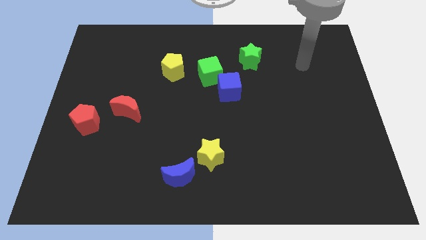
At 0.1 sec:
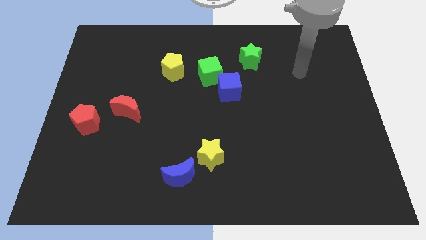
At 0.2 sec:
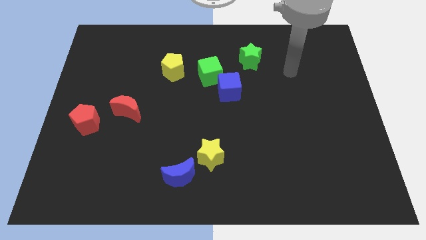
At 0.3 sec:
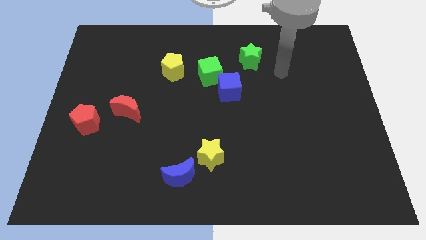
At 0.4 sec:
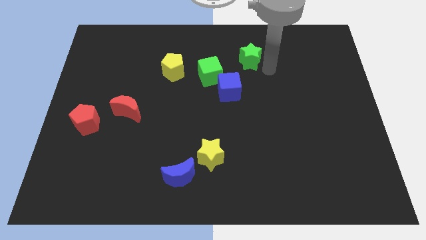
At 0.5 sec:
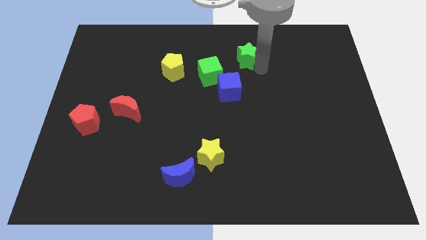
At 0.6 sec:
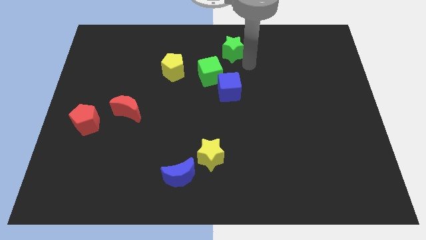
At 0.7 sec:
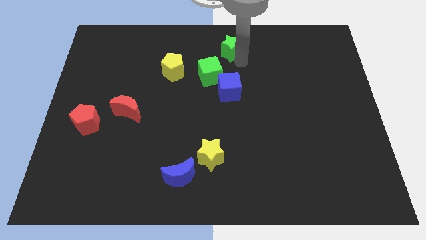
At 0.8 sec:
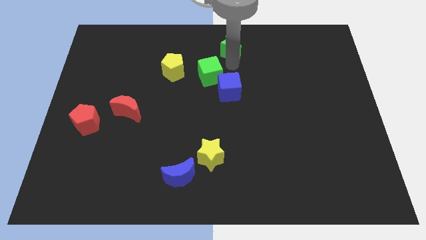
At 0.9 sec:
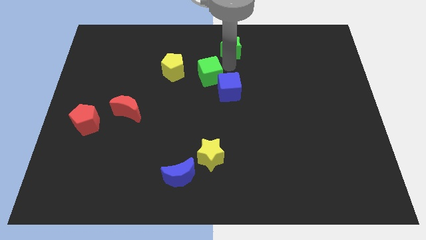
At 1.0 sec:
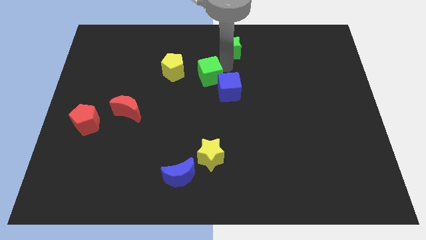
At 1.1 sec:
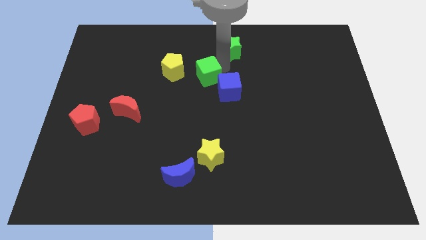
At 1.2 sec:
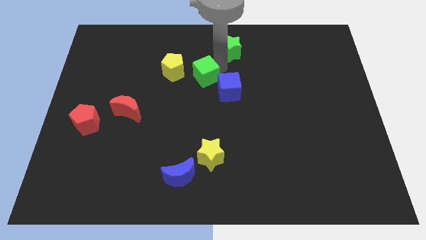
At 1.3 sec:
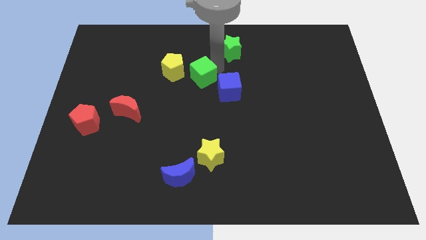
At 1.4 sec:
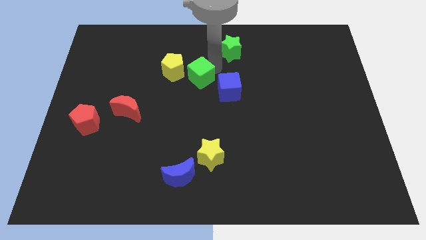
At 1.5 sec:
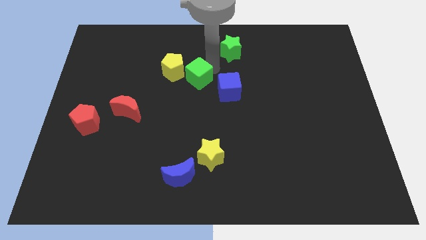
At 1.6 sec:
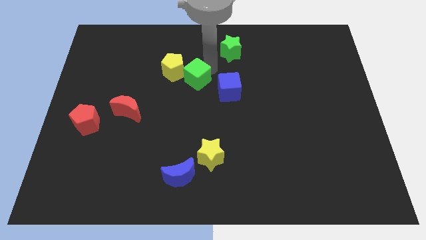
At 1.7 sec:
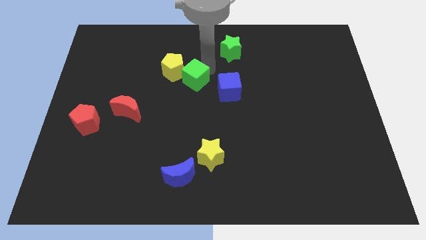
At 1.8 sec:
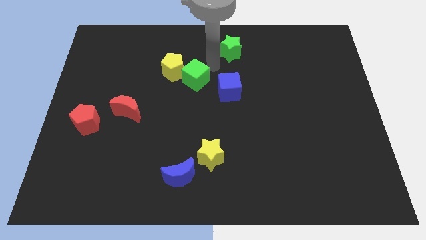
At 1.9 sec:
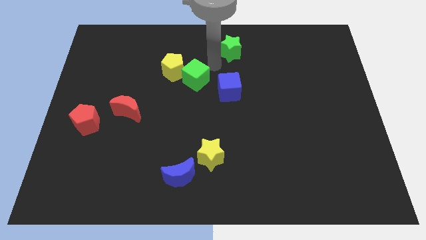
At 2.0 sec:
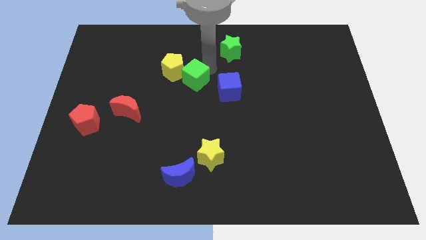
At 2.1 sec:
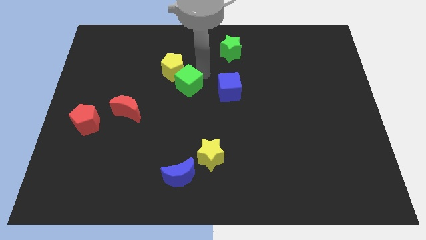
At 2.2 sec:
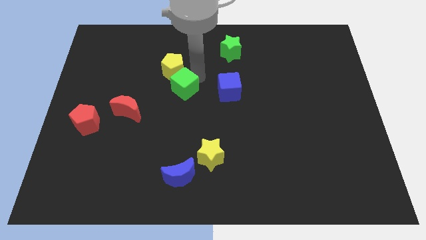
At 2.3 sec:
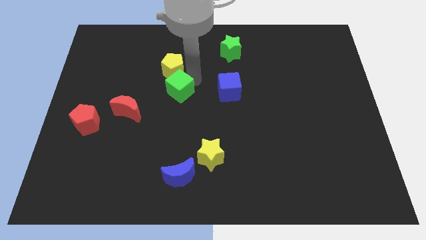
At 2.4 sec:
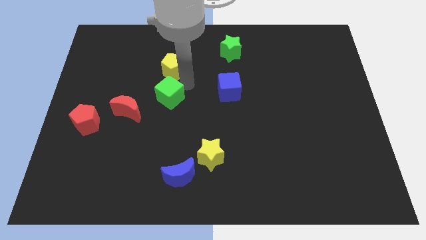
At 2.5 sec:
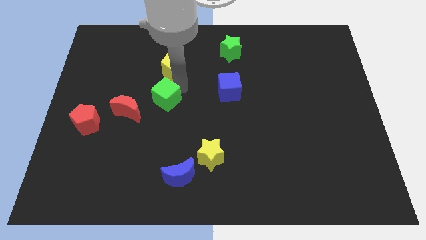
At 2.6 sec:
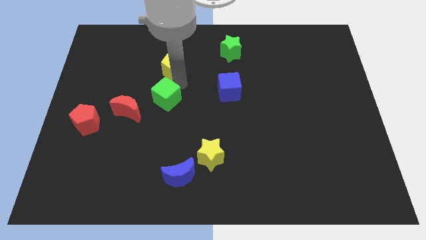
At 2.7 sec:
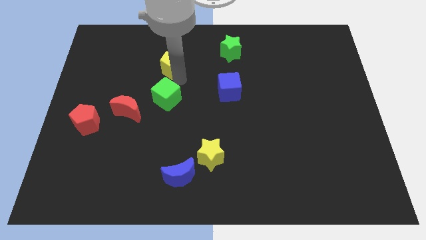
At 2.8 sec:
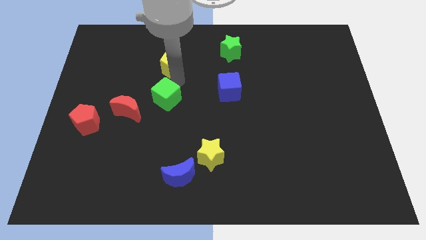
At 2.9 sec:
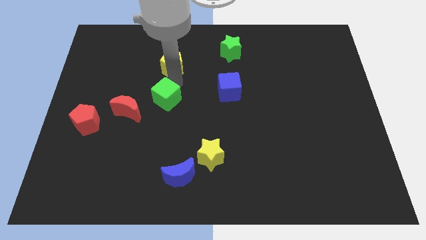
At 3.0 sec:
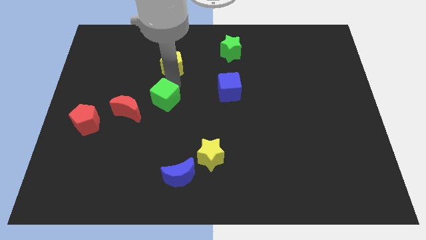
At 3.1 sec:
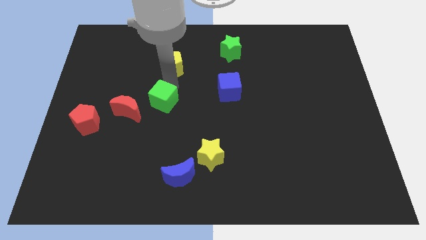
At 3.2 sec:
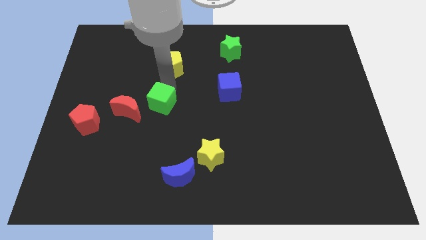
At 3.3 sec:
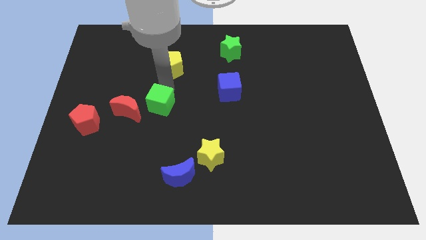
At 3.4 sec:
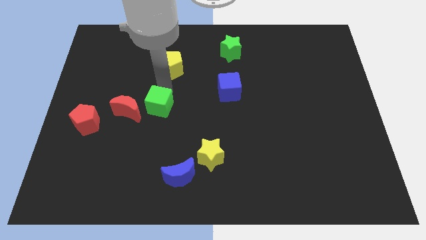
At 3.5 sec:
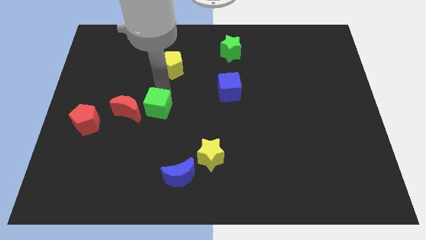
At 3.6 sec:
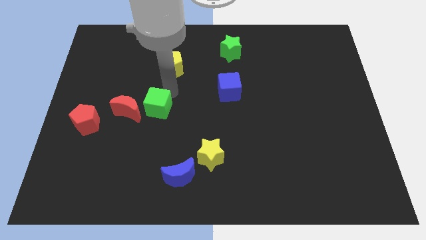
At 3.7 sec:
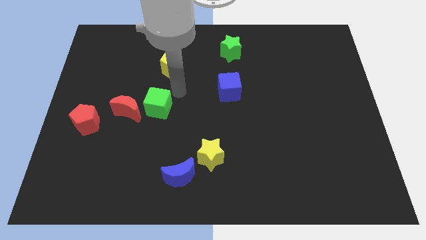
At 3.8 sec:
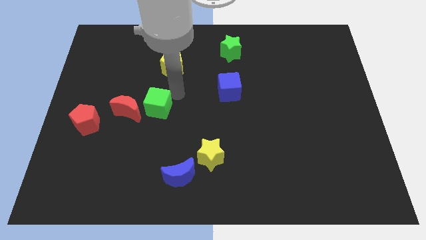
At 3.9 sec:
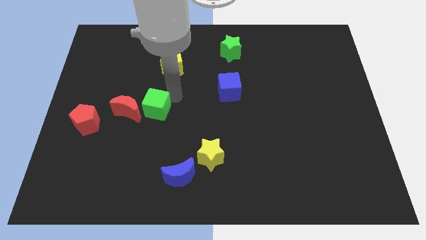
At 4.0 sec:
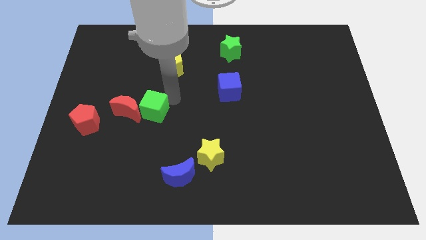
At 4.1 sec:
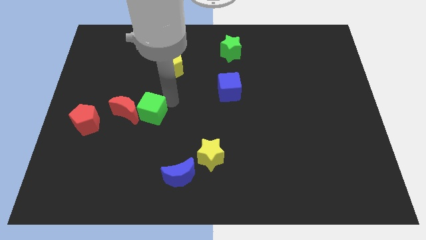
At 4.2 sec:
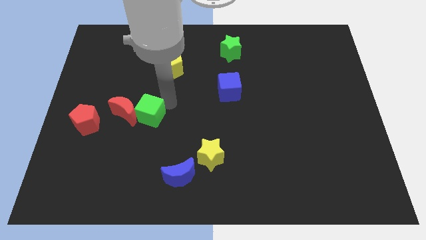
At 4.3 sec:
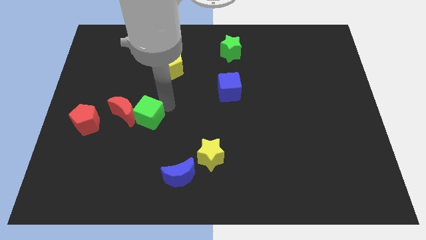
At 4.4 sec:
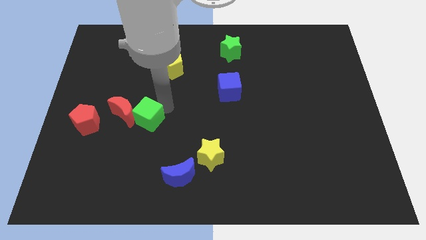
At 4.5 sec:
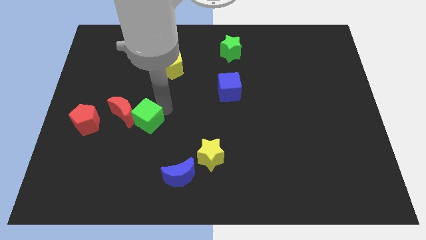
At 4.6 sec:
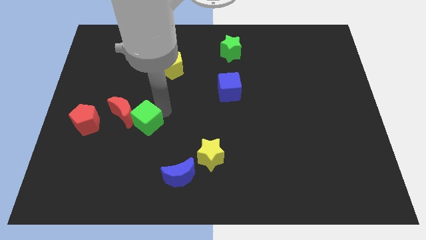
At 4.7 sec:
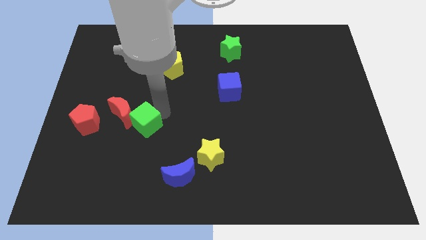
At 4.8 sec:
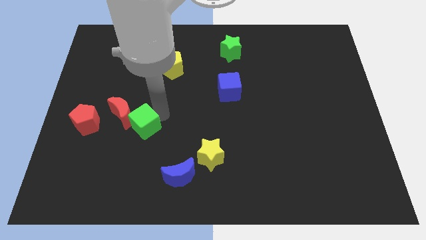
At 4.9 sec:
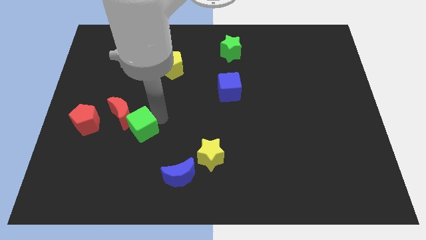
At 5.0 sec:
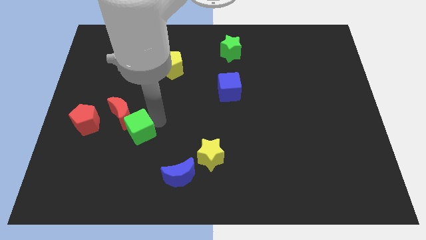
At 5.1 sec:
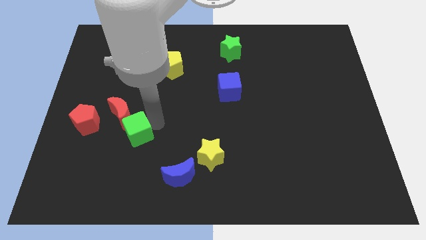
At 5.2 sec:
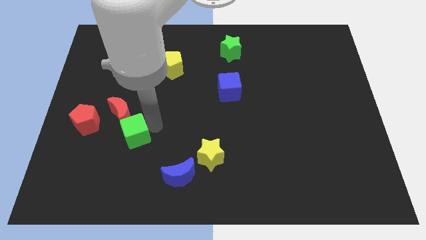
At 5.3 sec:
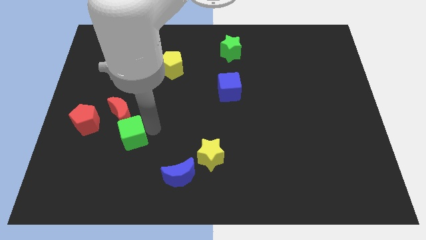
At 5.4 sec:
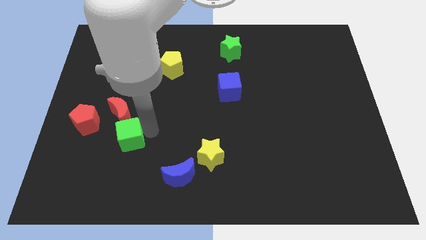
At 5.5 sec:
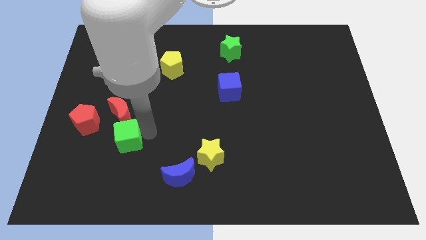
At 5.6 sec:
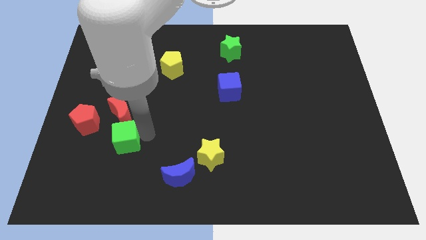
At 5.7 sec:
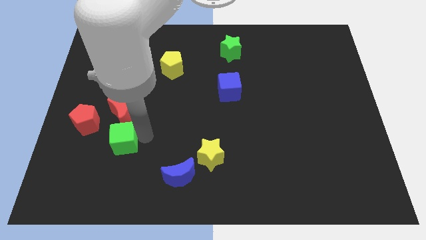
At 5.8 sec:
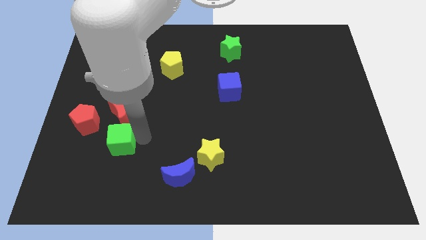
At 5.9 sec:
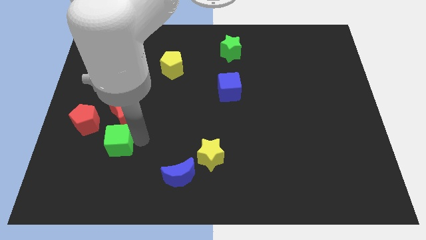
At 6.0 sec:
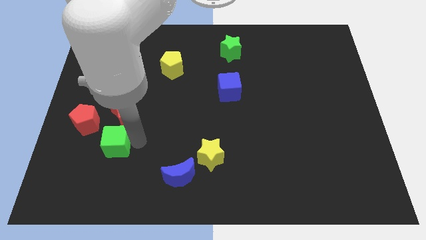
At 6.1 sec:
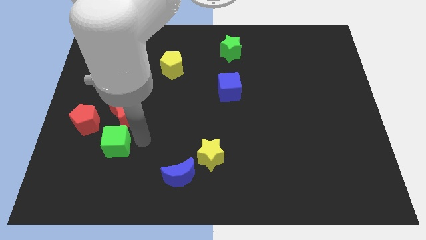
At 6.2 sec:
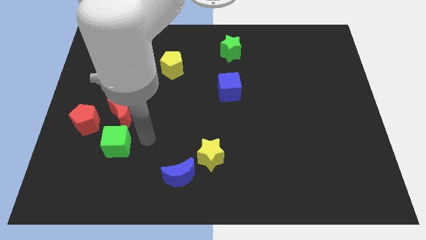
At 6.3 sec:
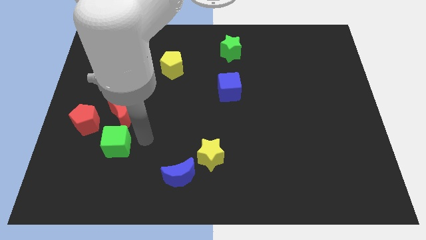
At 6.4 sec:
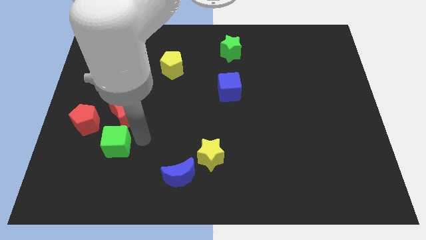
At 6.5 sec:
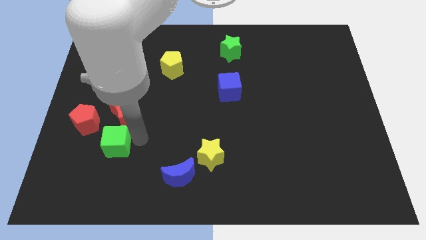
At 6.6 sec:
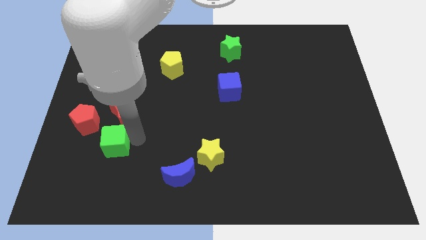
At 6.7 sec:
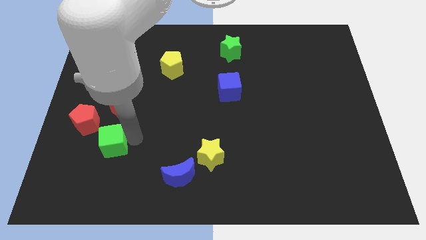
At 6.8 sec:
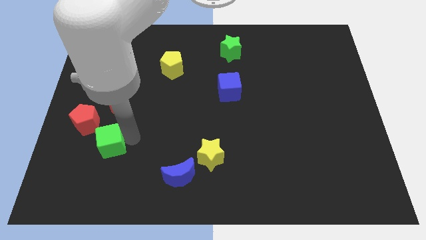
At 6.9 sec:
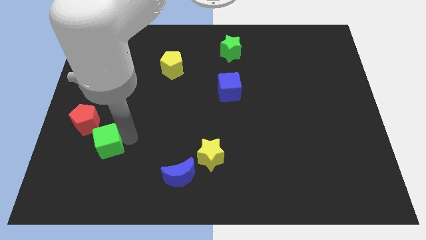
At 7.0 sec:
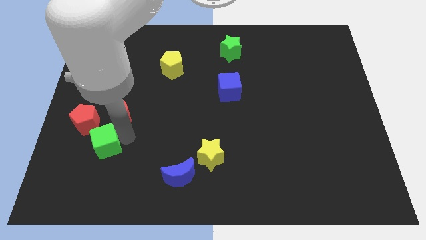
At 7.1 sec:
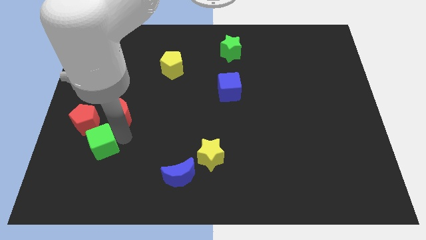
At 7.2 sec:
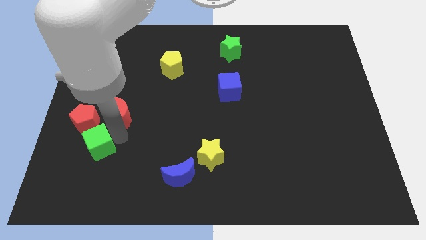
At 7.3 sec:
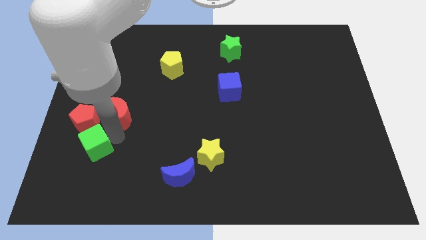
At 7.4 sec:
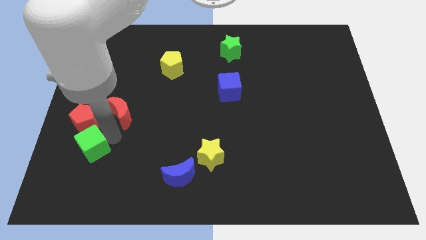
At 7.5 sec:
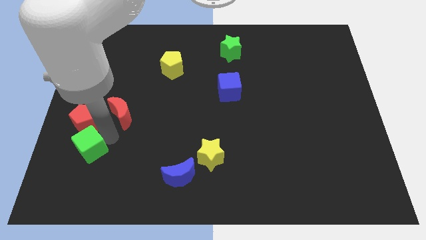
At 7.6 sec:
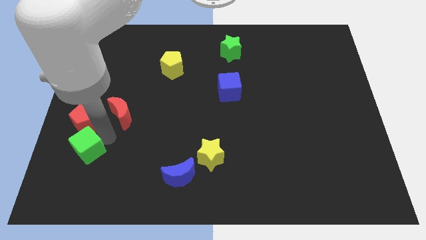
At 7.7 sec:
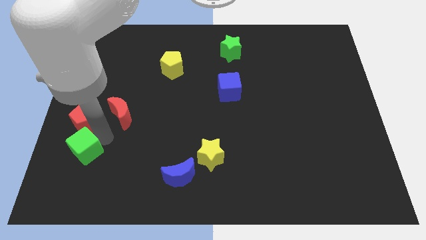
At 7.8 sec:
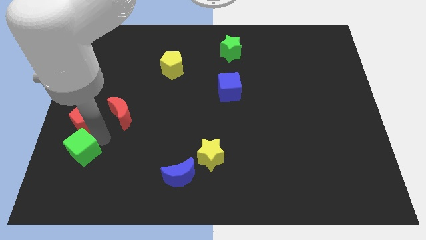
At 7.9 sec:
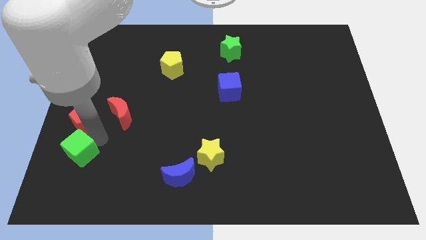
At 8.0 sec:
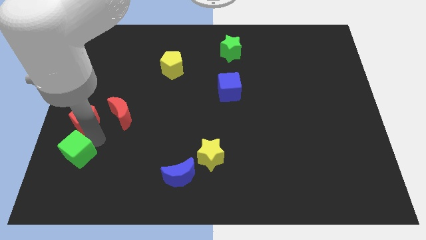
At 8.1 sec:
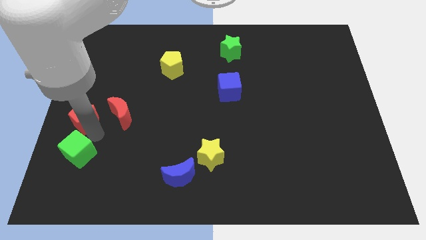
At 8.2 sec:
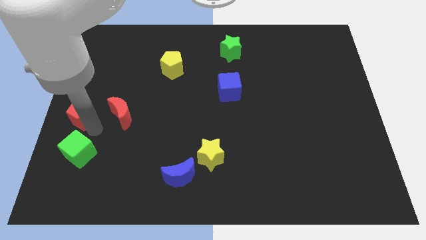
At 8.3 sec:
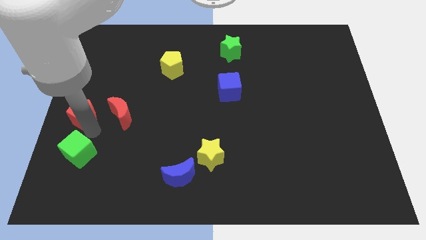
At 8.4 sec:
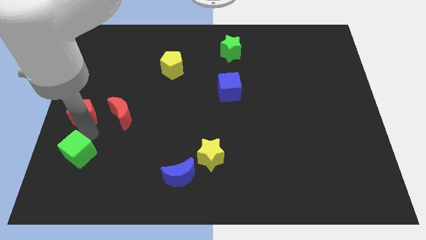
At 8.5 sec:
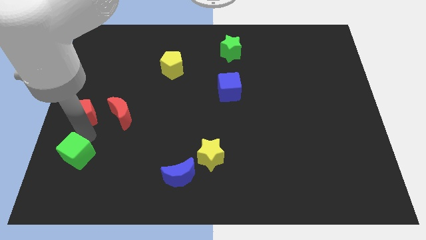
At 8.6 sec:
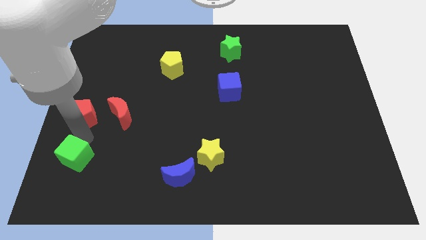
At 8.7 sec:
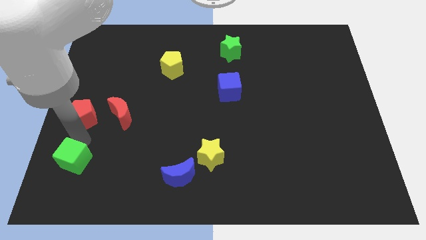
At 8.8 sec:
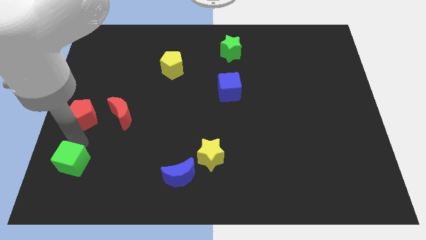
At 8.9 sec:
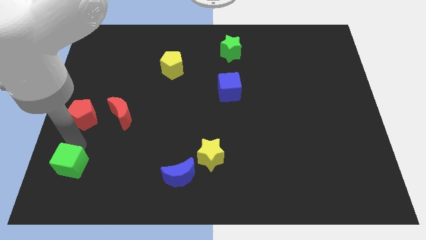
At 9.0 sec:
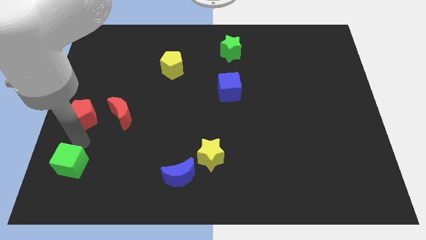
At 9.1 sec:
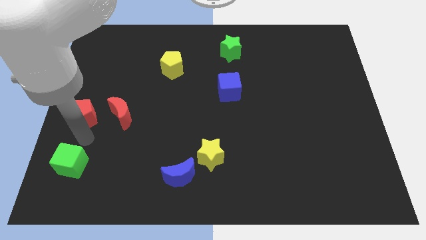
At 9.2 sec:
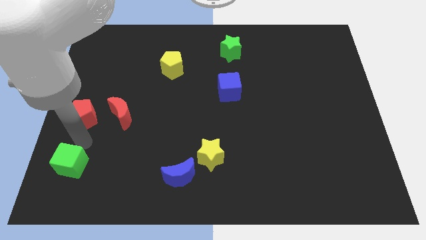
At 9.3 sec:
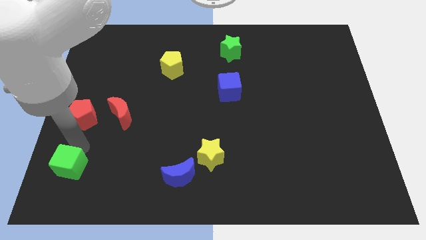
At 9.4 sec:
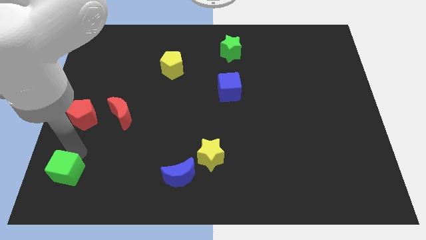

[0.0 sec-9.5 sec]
move the green cube to the bottom left of the board
